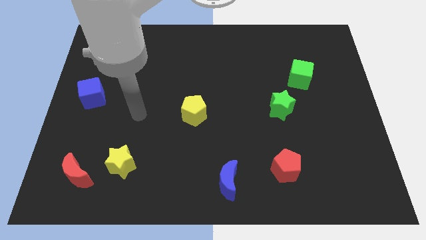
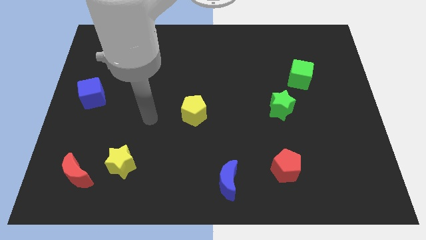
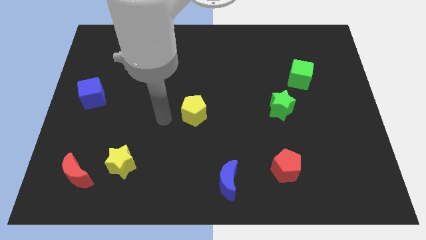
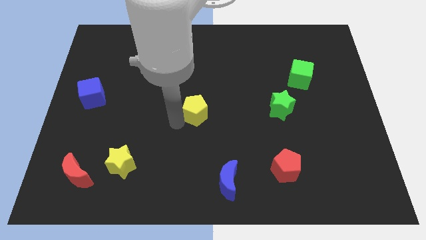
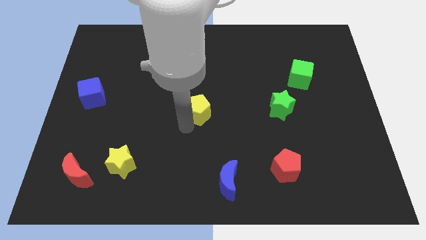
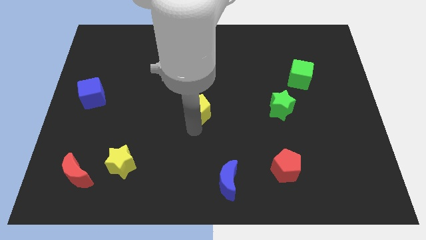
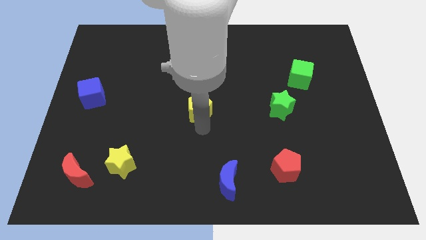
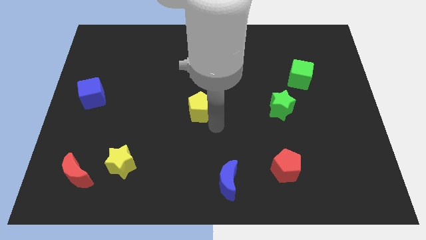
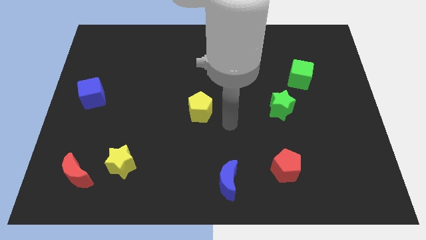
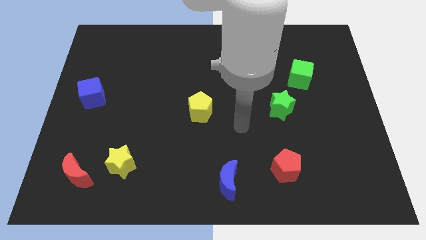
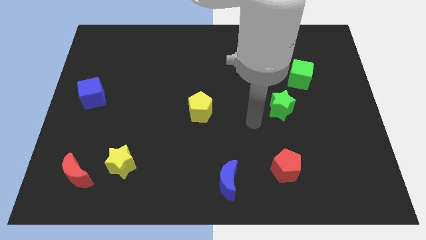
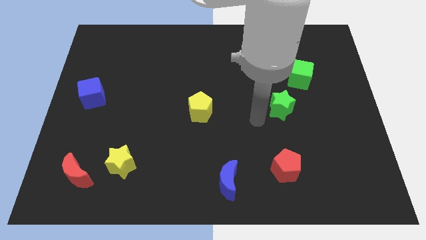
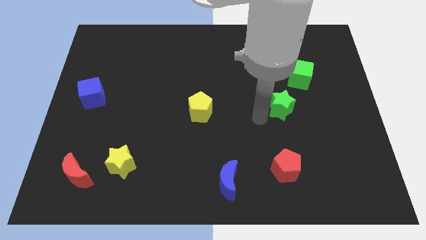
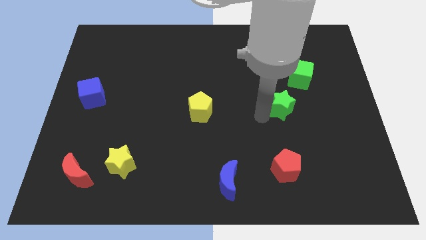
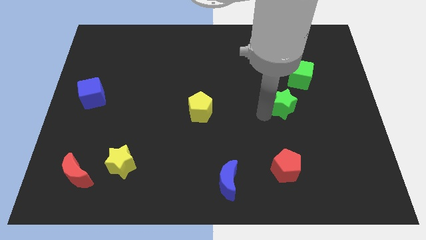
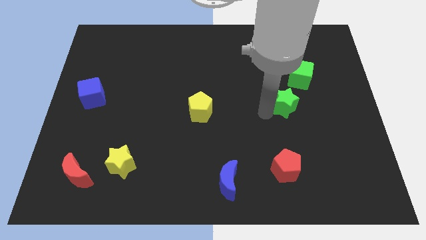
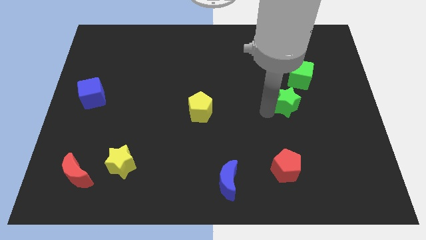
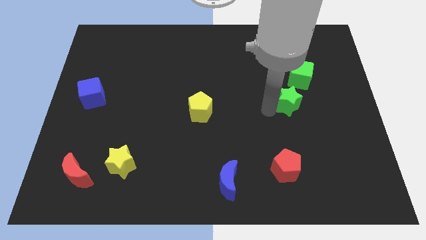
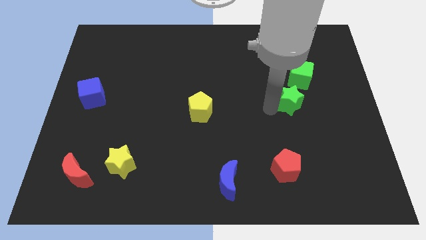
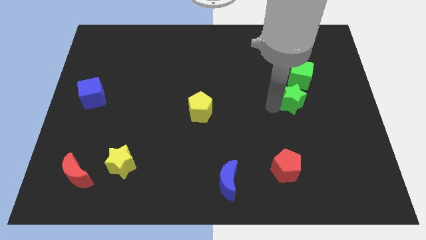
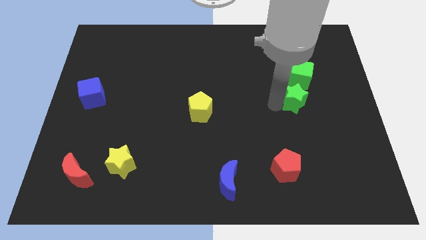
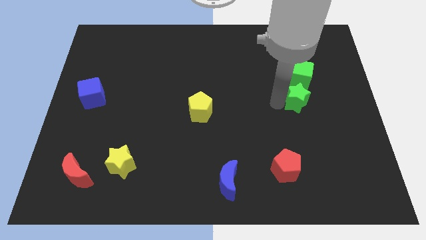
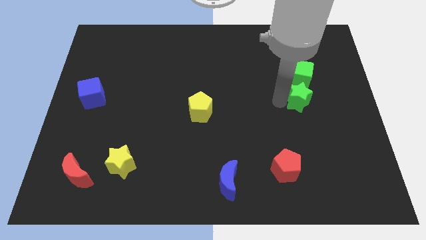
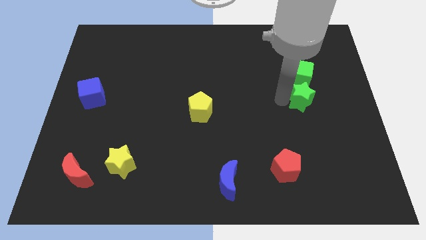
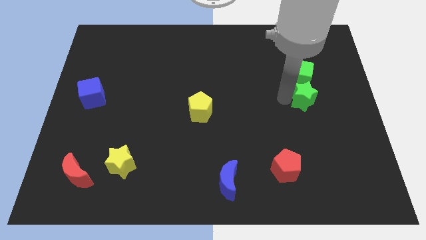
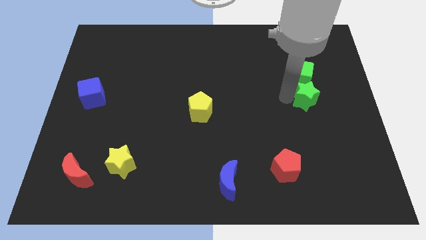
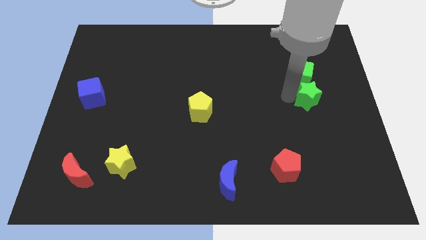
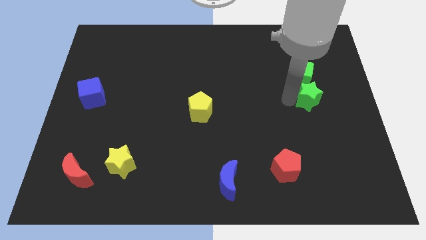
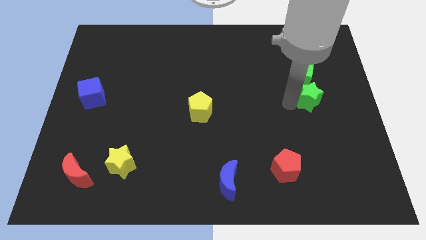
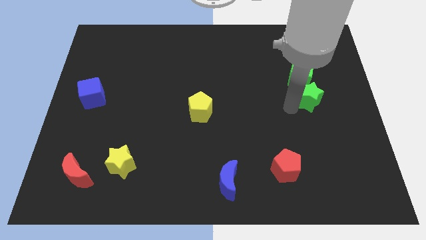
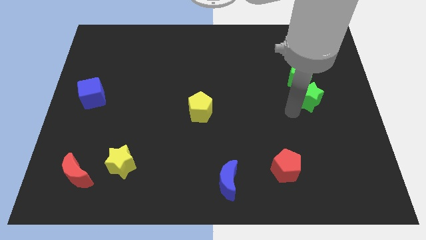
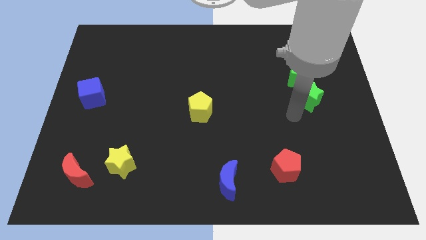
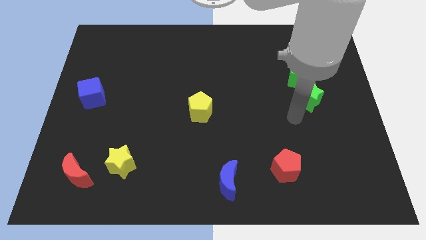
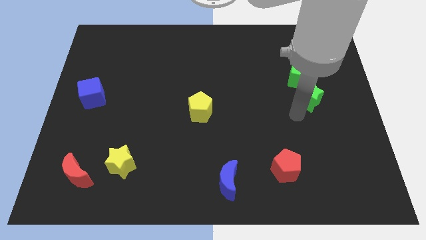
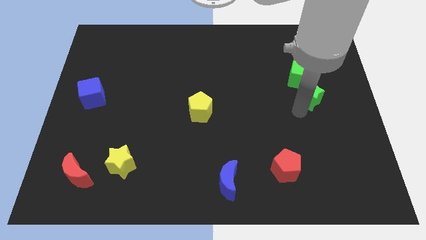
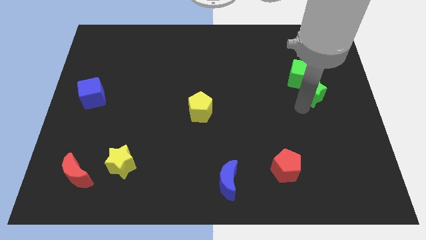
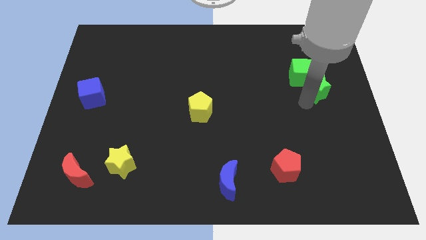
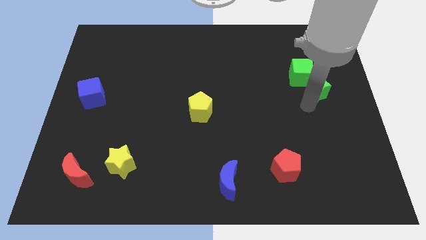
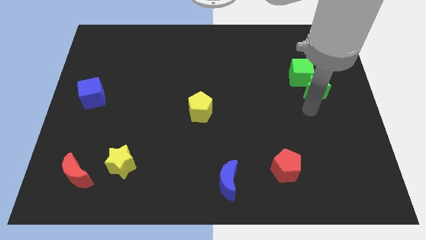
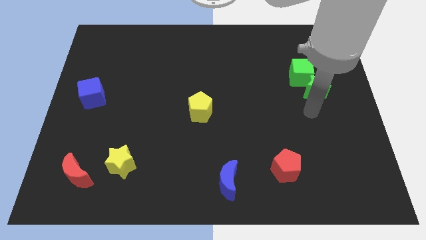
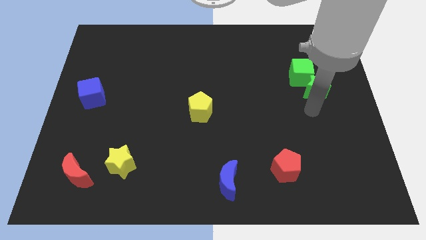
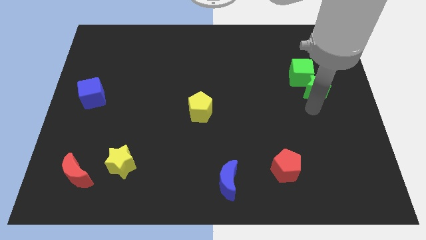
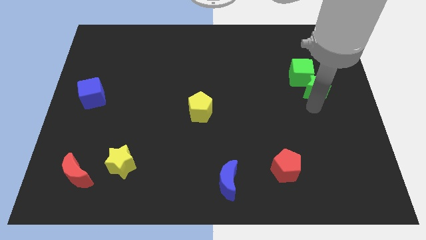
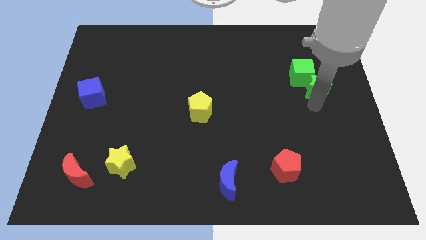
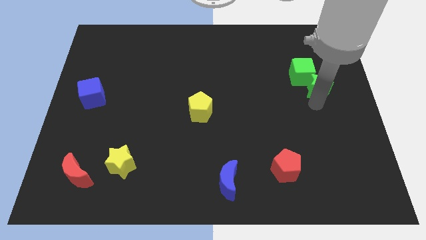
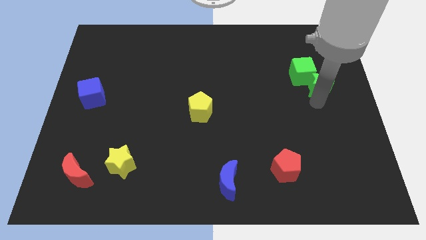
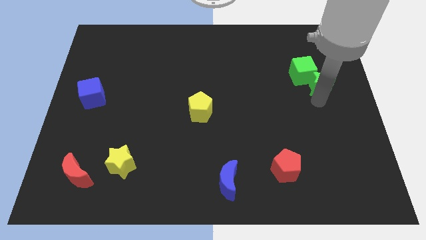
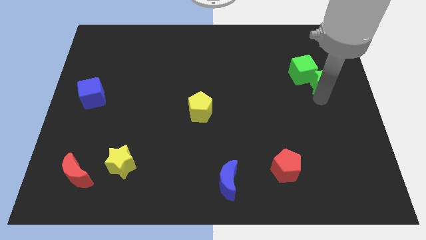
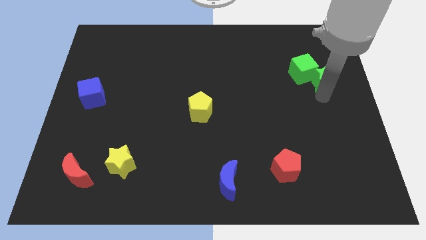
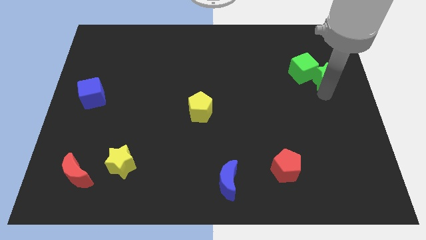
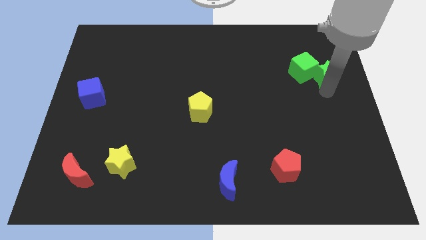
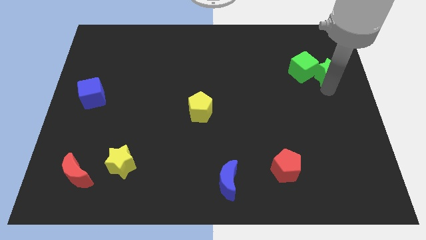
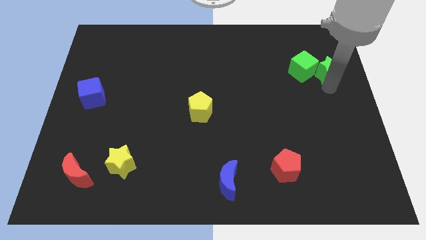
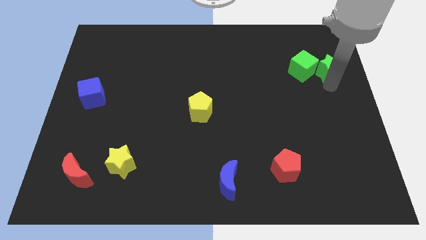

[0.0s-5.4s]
push the green star diagonally up and to the right of the green cube

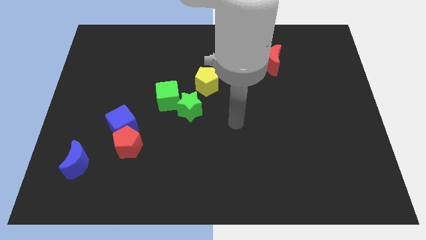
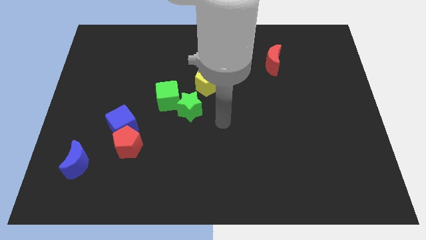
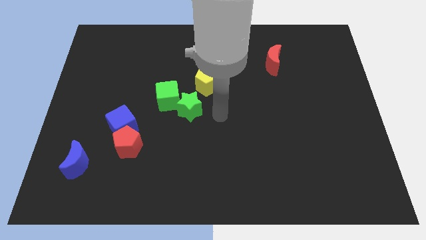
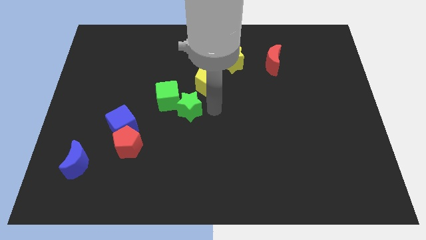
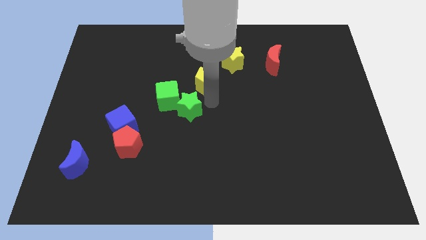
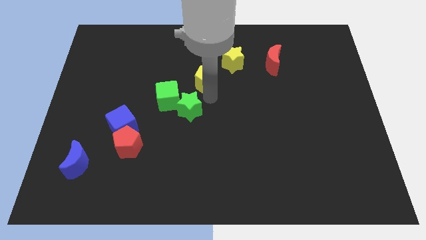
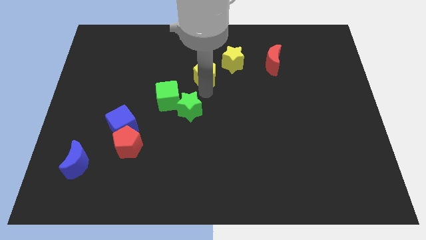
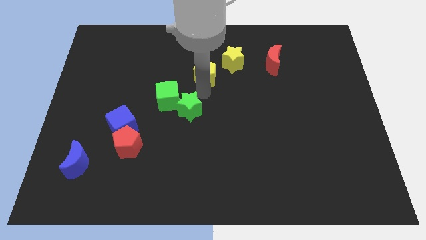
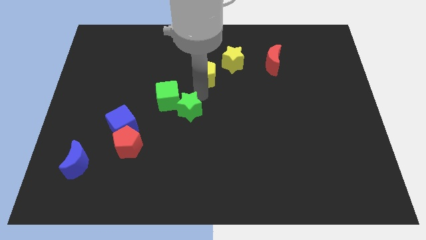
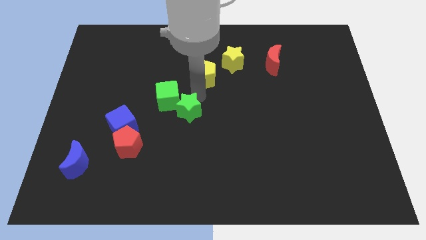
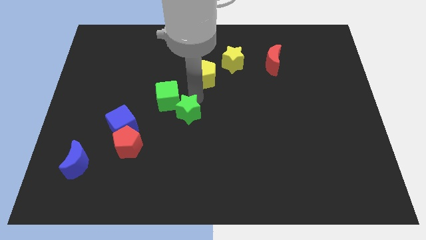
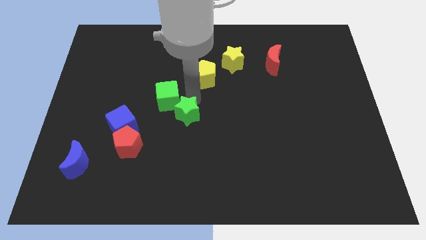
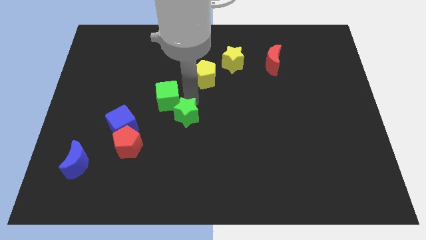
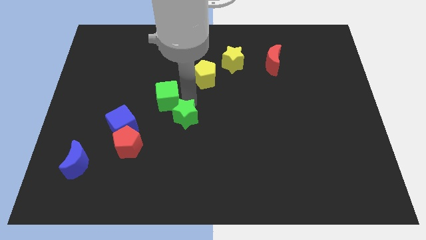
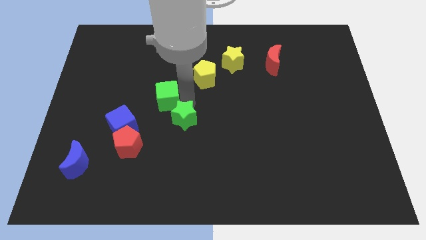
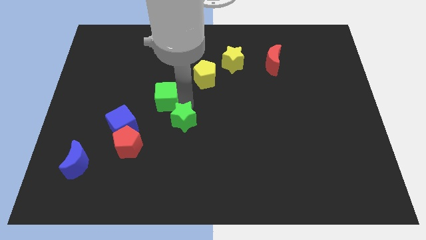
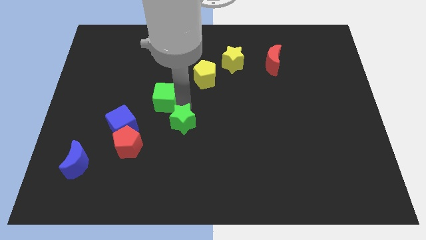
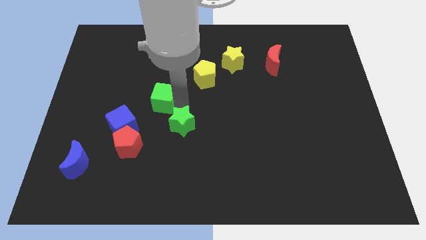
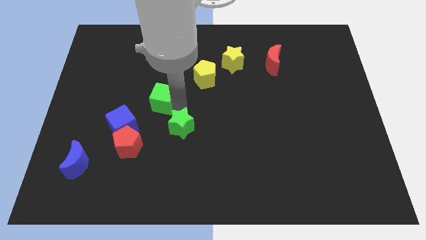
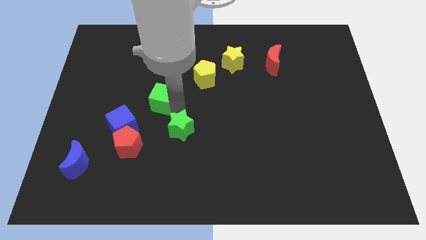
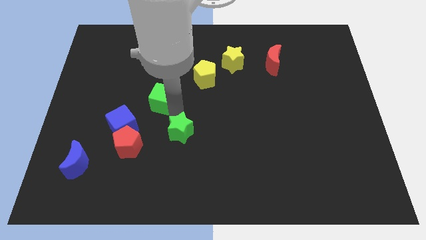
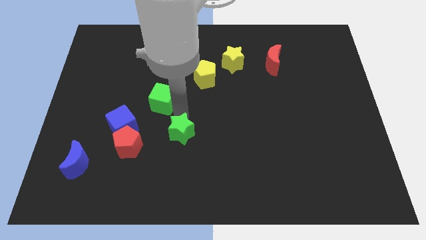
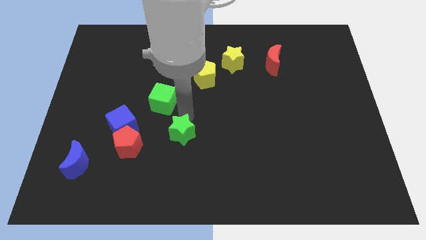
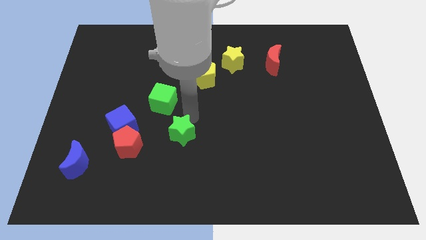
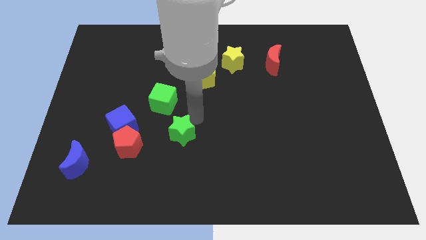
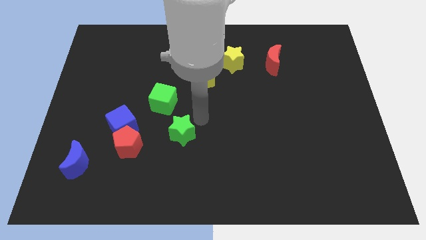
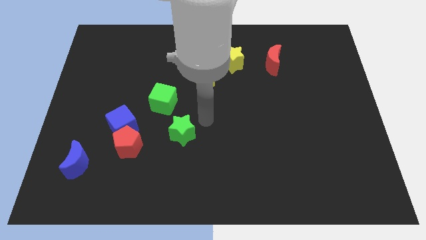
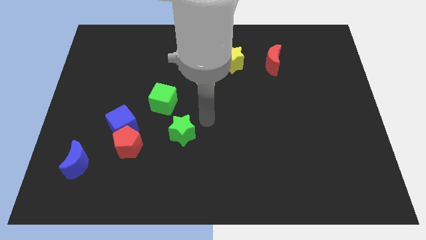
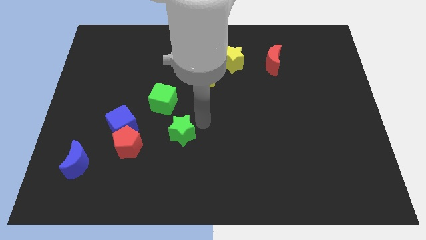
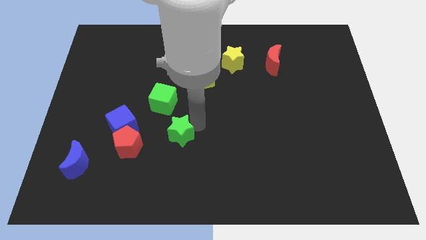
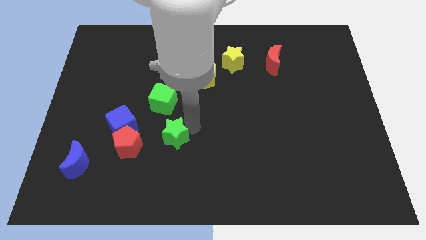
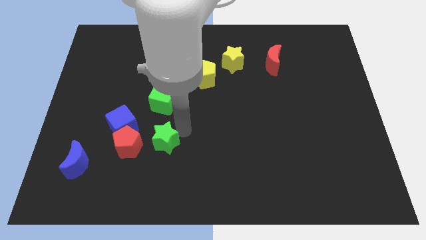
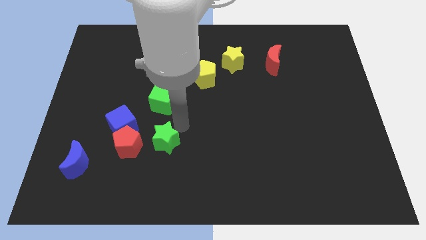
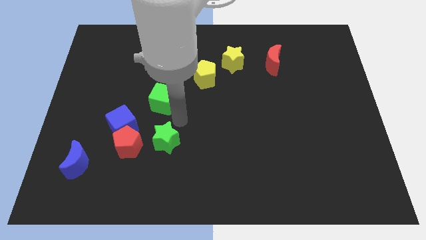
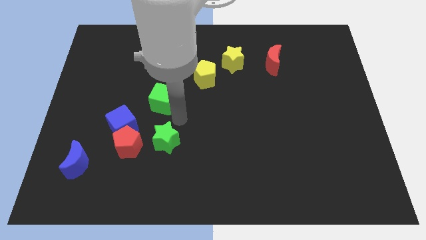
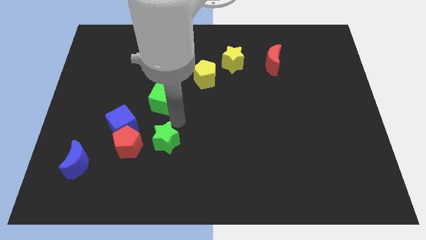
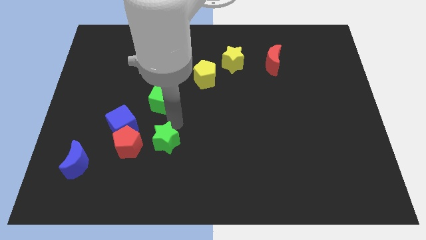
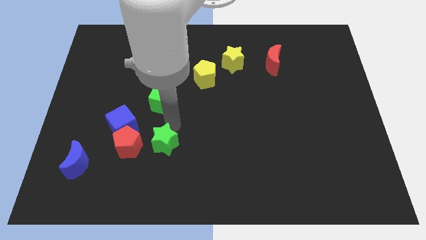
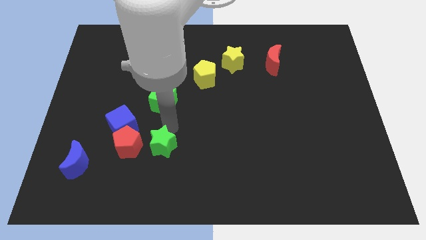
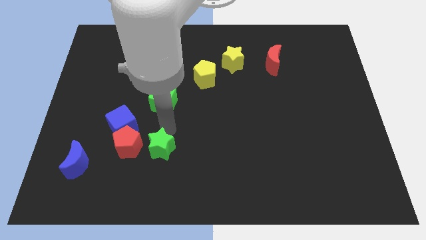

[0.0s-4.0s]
move the green star diagonally down and to the right of the red pentagon
